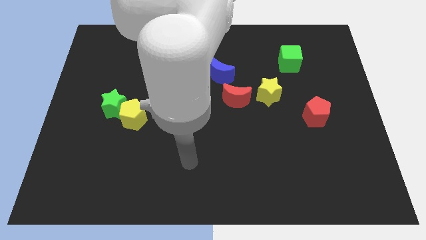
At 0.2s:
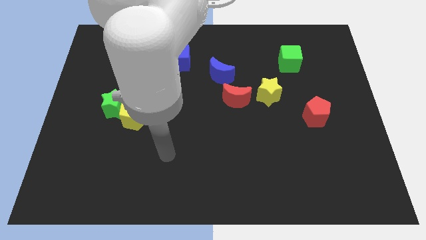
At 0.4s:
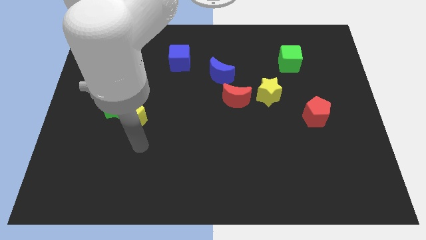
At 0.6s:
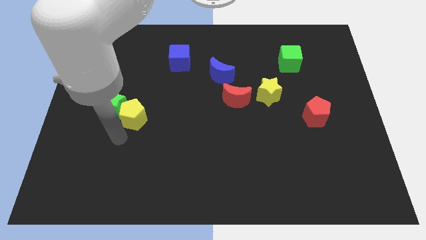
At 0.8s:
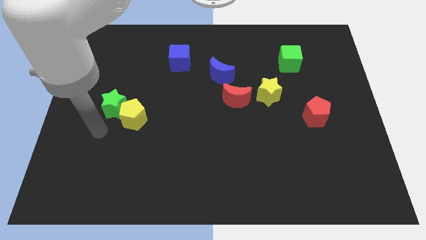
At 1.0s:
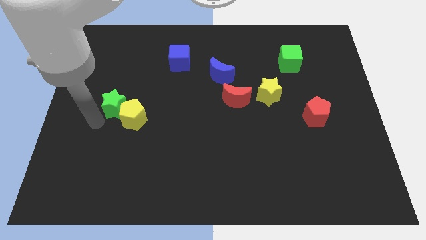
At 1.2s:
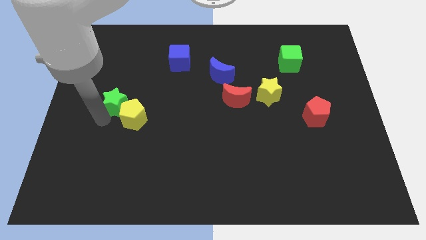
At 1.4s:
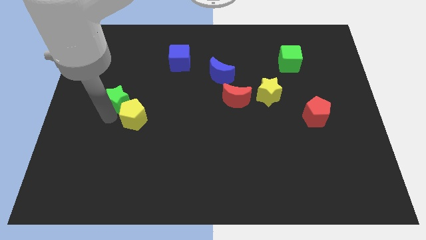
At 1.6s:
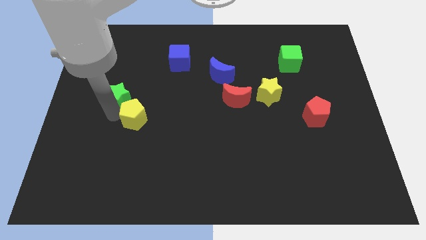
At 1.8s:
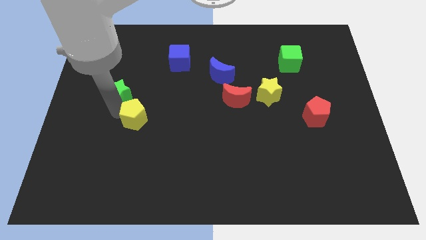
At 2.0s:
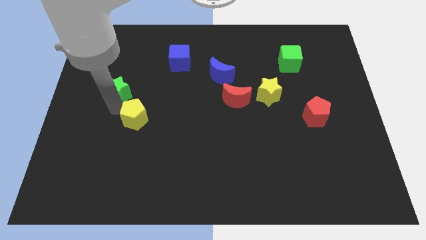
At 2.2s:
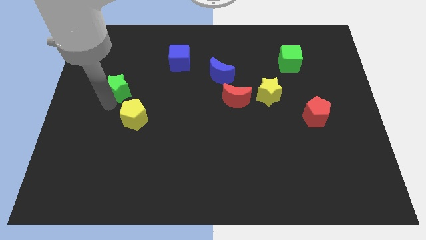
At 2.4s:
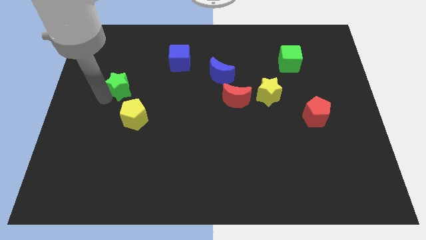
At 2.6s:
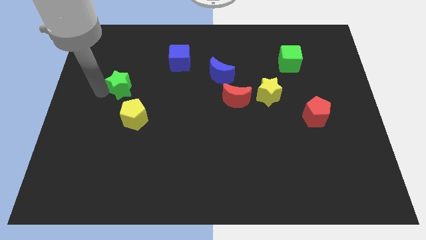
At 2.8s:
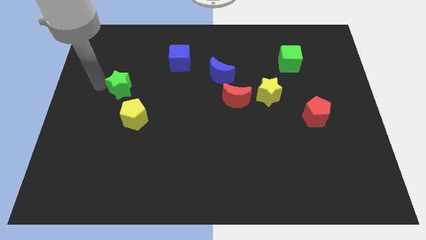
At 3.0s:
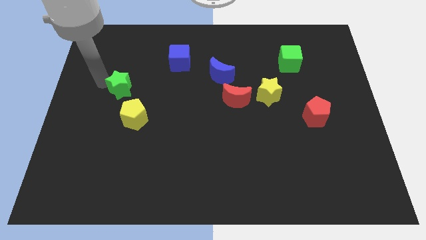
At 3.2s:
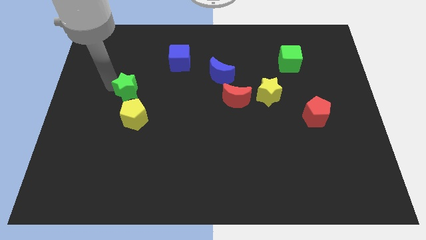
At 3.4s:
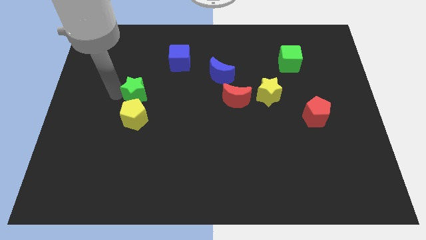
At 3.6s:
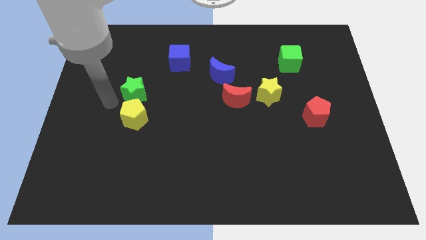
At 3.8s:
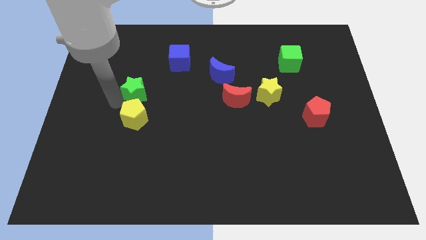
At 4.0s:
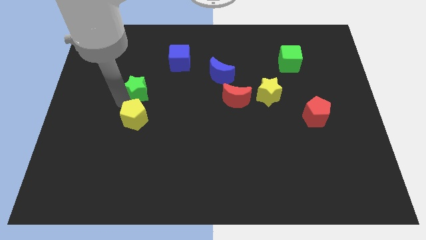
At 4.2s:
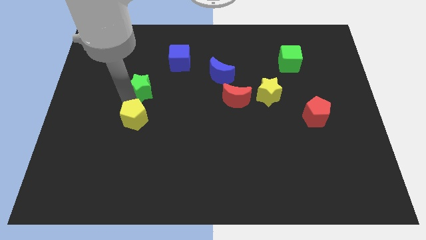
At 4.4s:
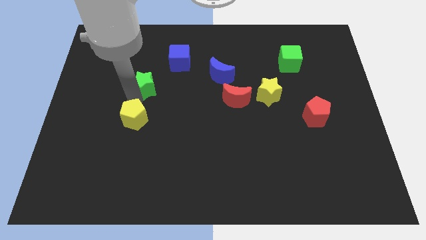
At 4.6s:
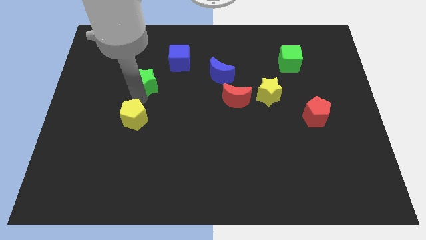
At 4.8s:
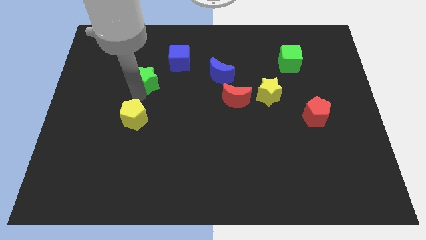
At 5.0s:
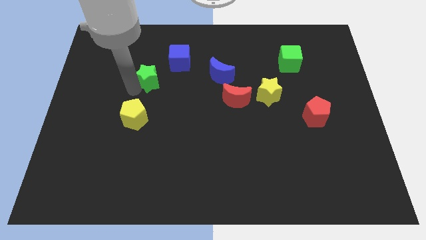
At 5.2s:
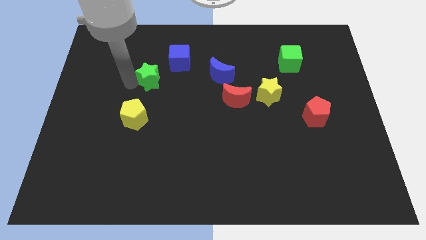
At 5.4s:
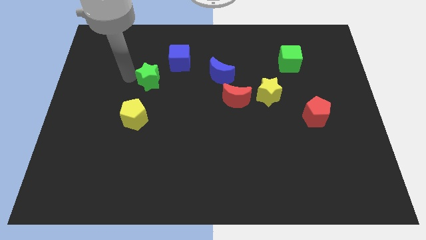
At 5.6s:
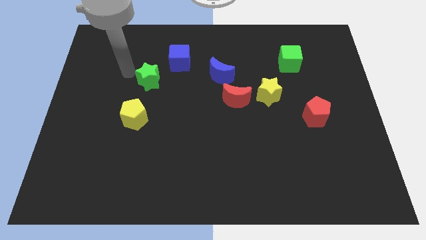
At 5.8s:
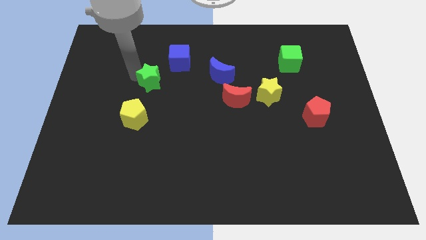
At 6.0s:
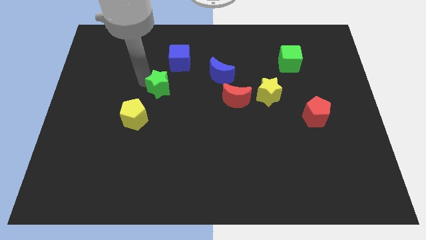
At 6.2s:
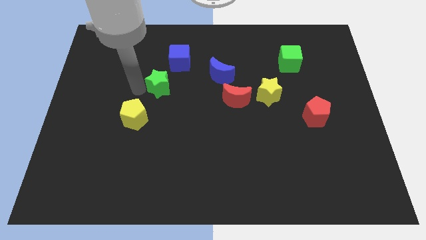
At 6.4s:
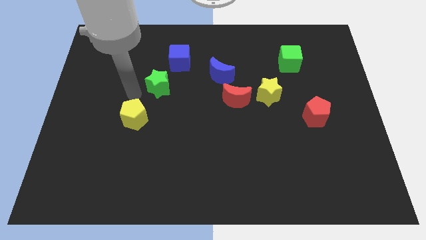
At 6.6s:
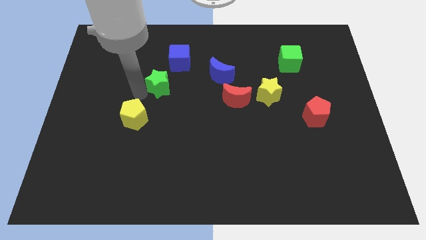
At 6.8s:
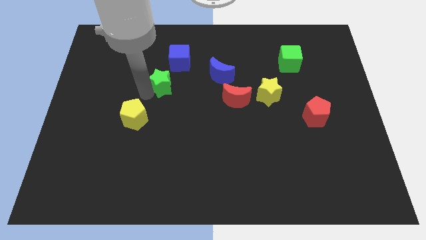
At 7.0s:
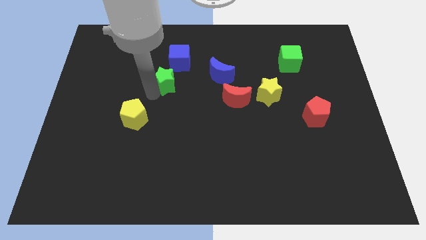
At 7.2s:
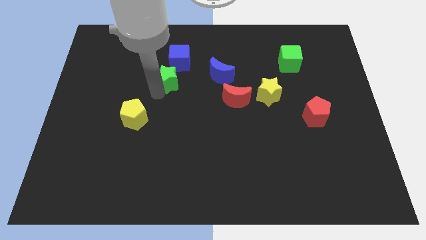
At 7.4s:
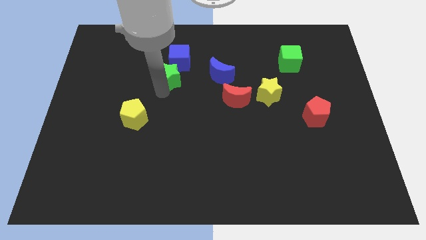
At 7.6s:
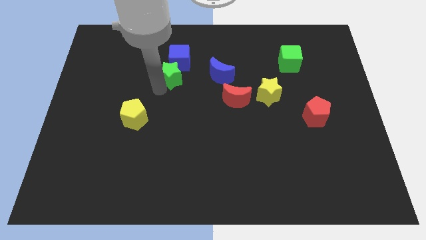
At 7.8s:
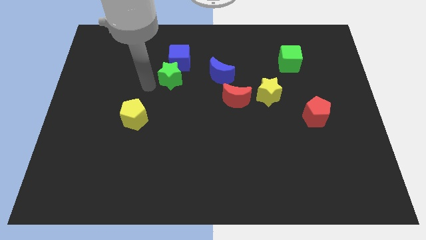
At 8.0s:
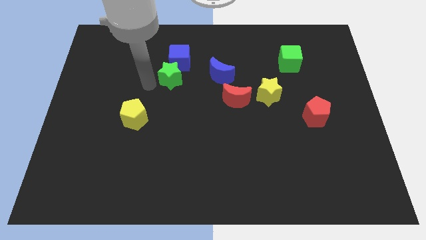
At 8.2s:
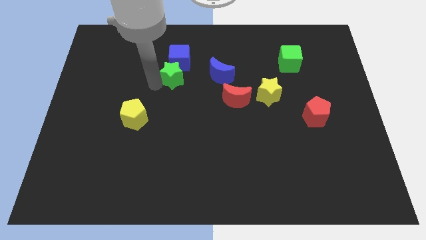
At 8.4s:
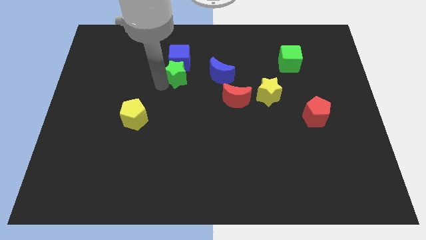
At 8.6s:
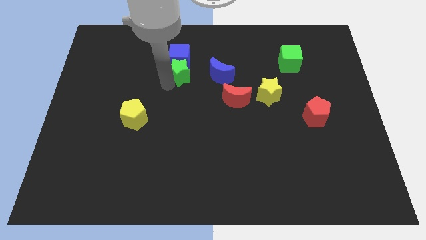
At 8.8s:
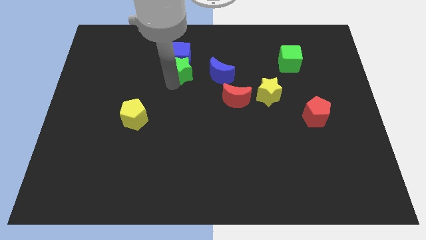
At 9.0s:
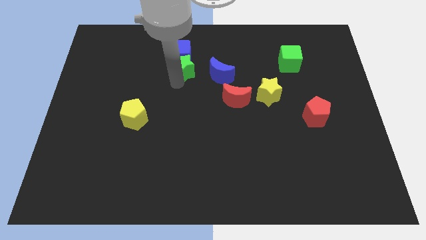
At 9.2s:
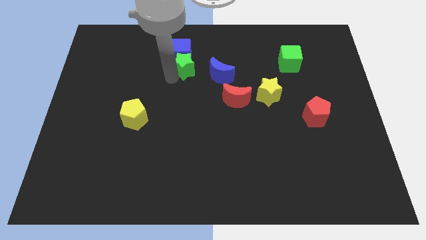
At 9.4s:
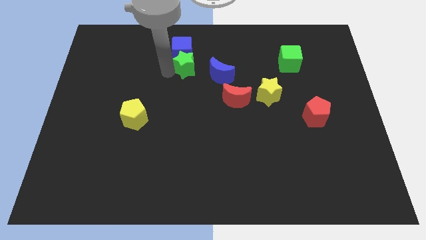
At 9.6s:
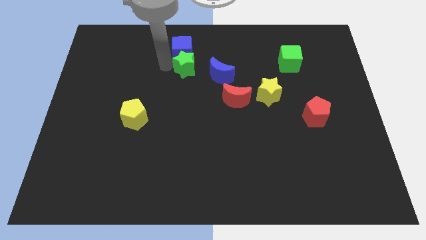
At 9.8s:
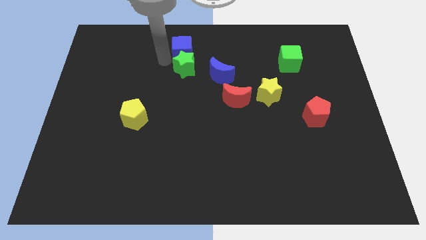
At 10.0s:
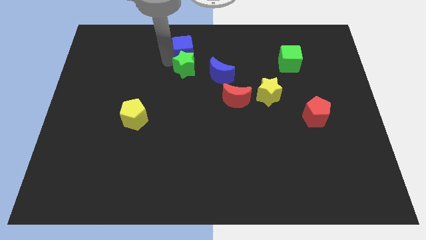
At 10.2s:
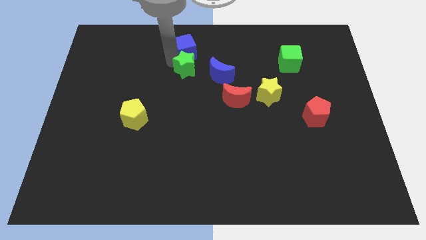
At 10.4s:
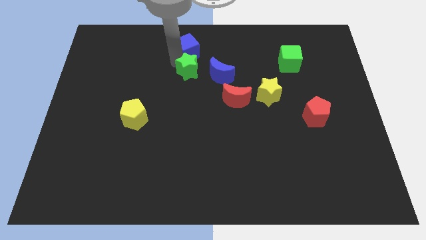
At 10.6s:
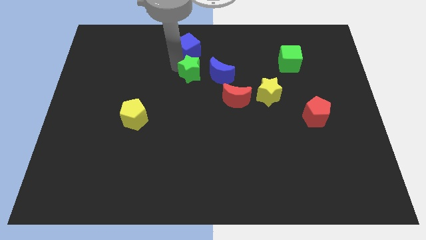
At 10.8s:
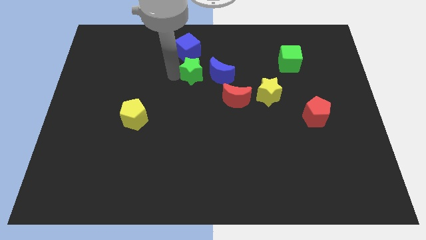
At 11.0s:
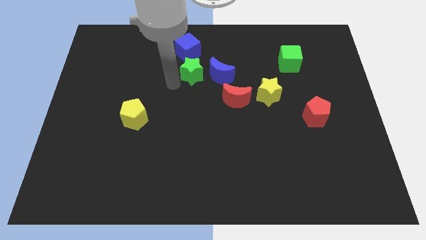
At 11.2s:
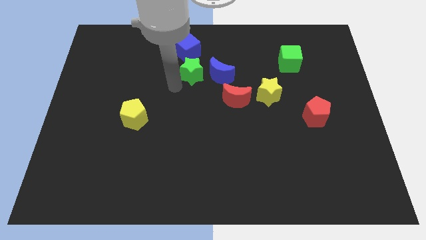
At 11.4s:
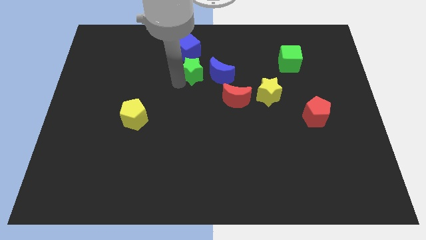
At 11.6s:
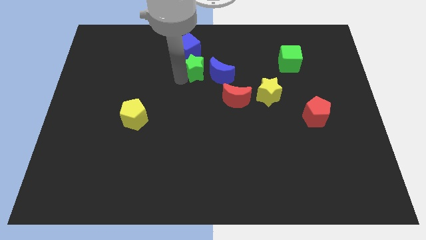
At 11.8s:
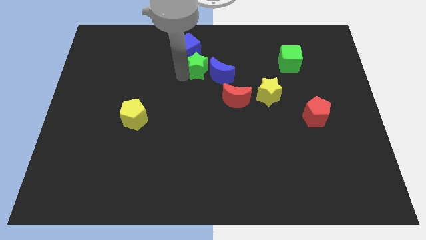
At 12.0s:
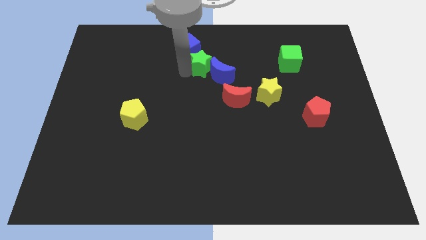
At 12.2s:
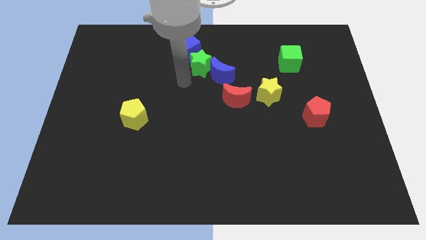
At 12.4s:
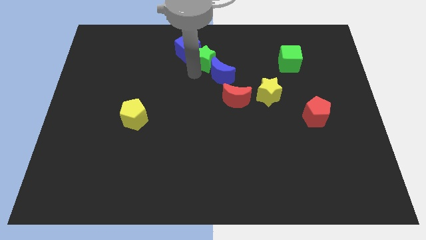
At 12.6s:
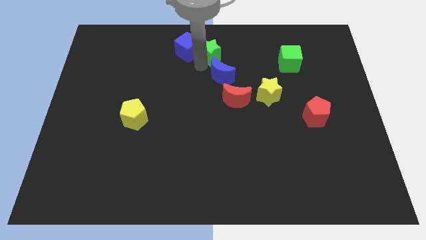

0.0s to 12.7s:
slide the green star to the towards your base
